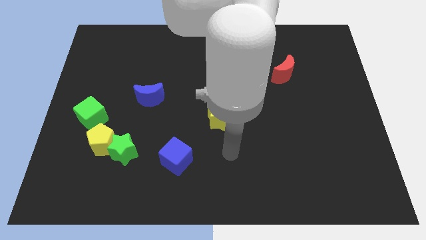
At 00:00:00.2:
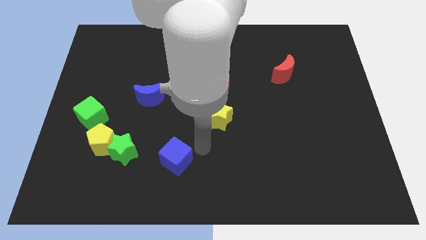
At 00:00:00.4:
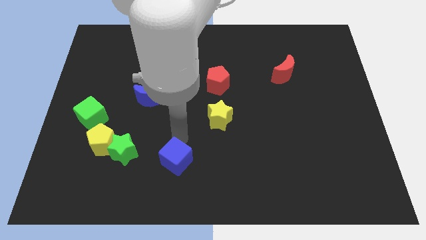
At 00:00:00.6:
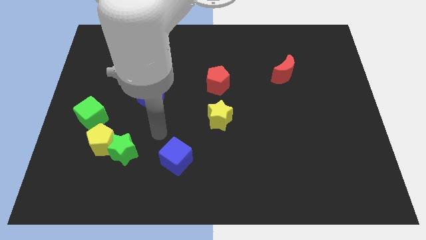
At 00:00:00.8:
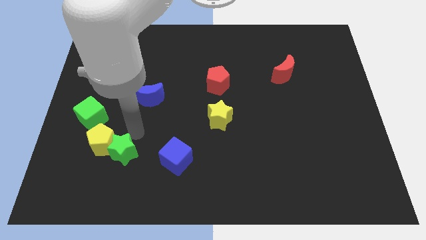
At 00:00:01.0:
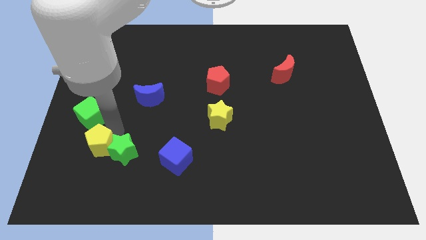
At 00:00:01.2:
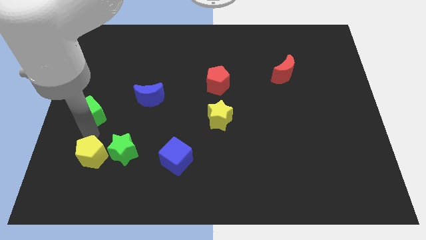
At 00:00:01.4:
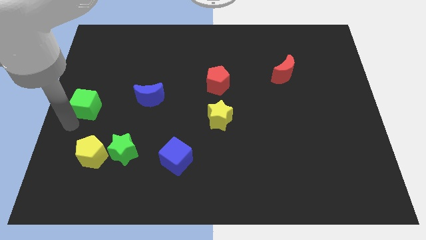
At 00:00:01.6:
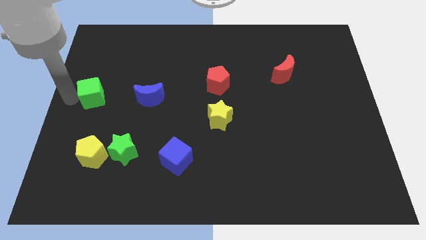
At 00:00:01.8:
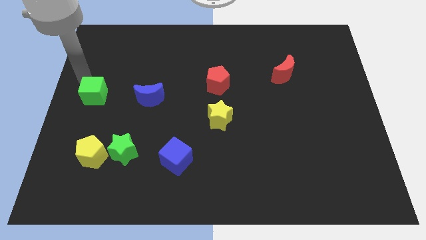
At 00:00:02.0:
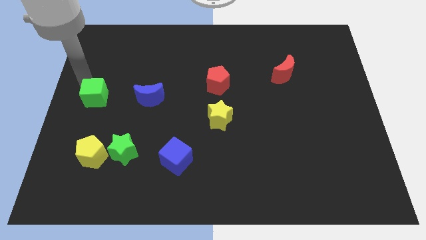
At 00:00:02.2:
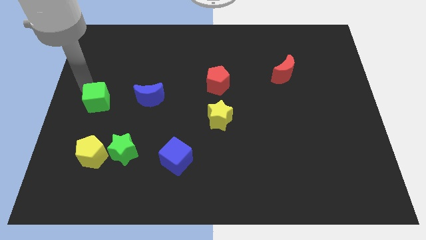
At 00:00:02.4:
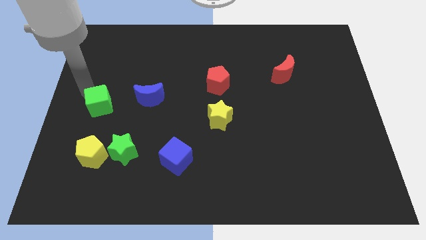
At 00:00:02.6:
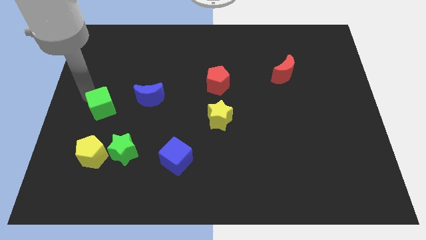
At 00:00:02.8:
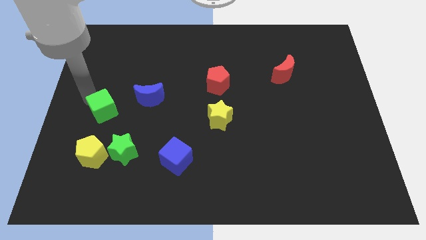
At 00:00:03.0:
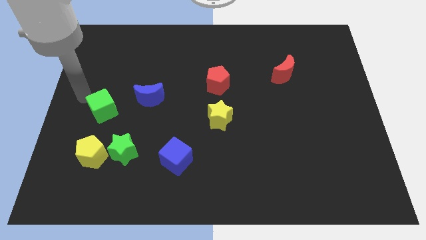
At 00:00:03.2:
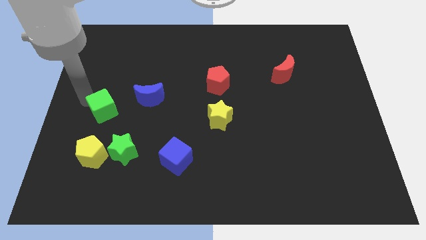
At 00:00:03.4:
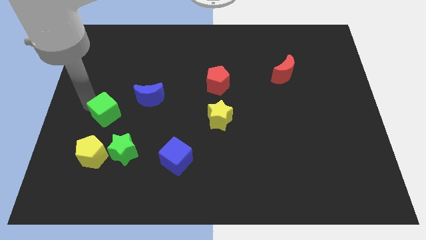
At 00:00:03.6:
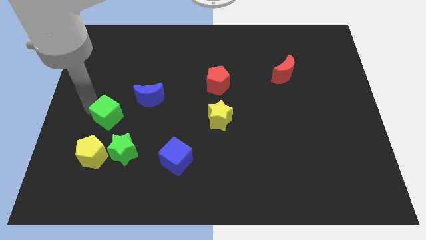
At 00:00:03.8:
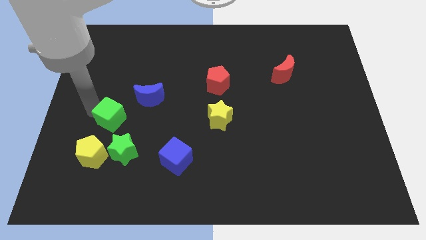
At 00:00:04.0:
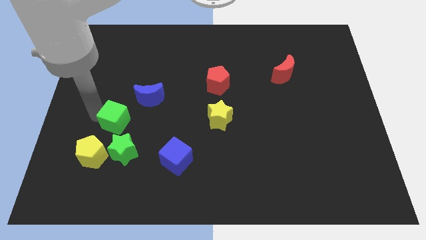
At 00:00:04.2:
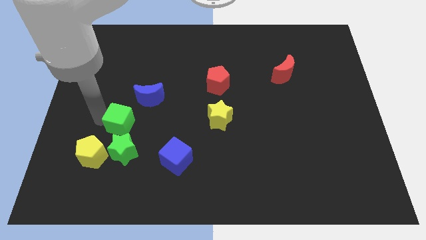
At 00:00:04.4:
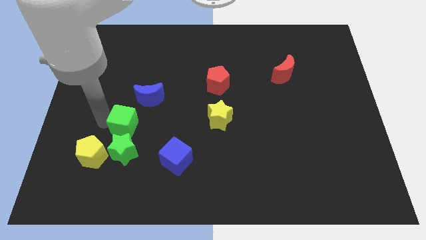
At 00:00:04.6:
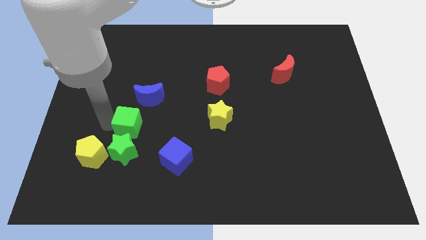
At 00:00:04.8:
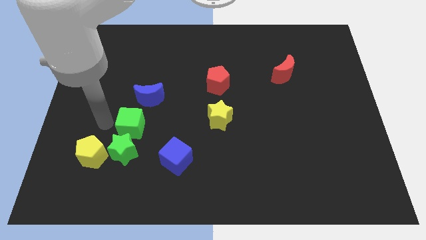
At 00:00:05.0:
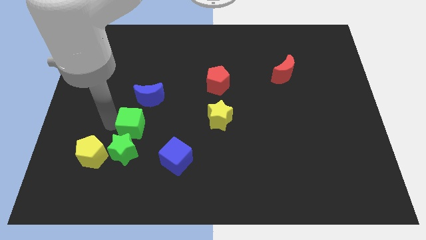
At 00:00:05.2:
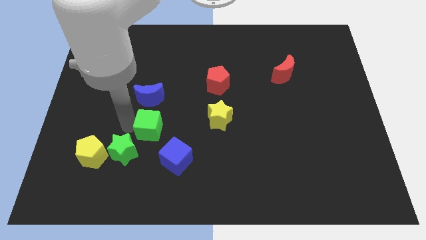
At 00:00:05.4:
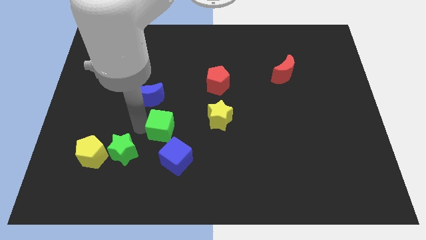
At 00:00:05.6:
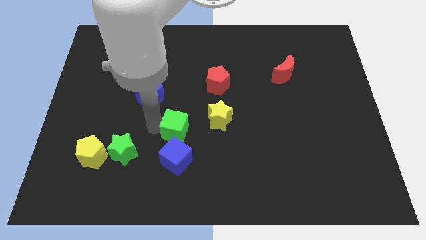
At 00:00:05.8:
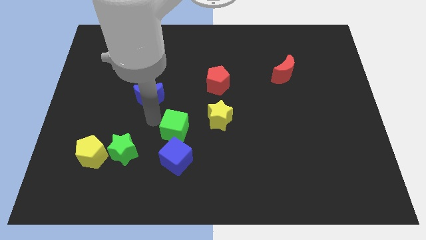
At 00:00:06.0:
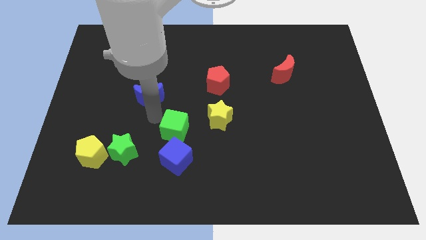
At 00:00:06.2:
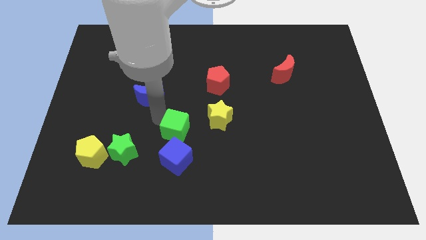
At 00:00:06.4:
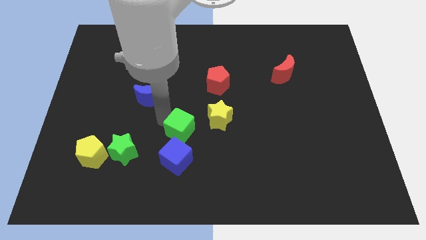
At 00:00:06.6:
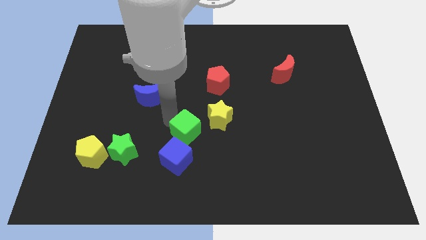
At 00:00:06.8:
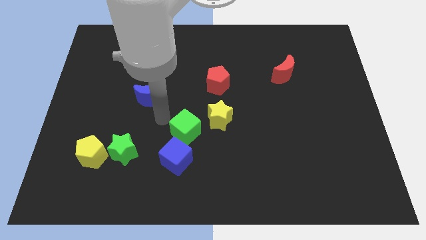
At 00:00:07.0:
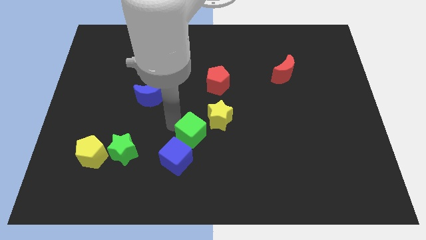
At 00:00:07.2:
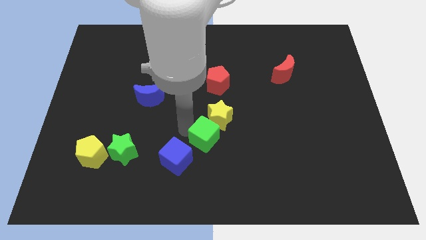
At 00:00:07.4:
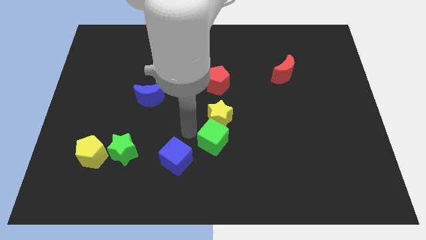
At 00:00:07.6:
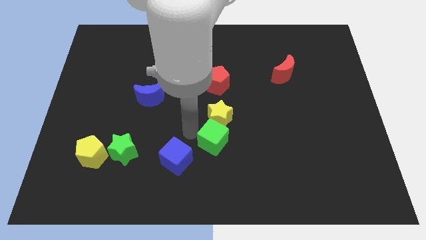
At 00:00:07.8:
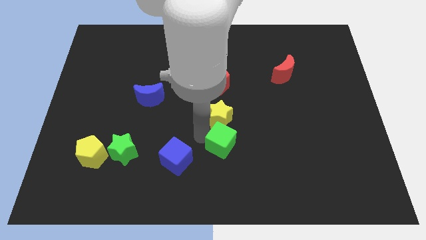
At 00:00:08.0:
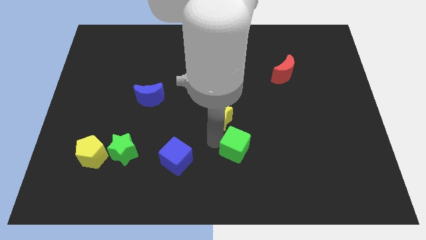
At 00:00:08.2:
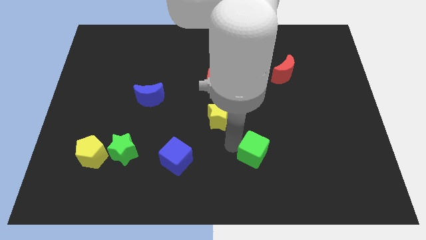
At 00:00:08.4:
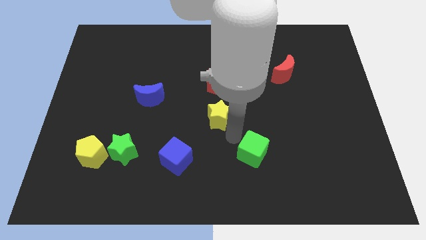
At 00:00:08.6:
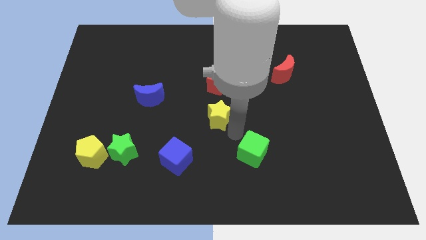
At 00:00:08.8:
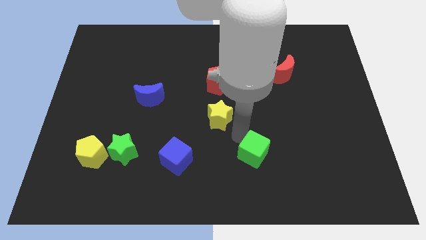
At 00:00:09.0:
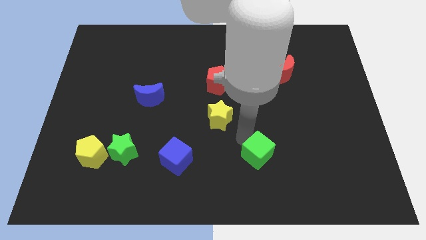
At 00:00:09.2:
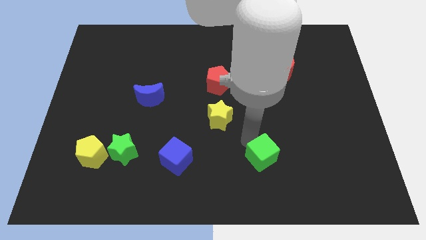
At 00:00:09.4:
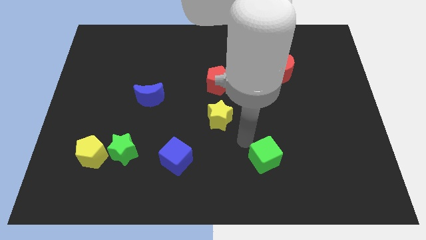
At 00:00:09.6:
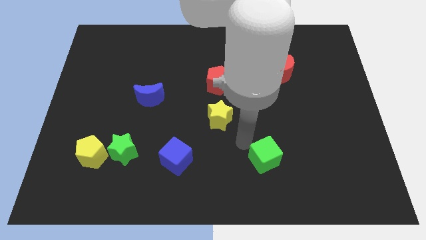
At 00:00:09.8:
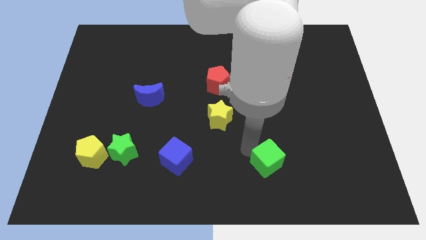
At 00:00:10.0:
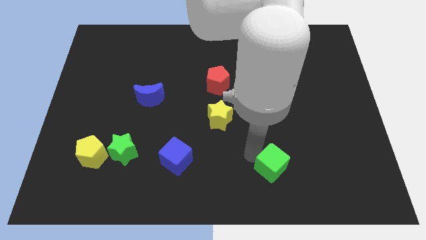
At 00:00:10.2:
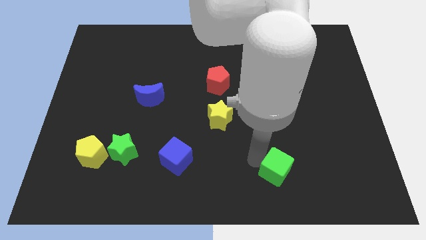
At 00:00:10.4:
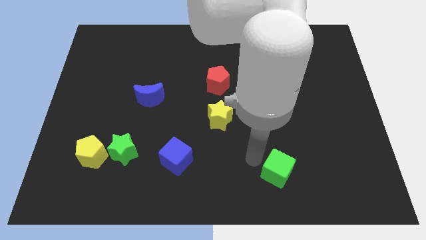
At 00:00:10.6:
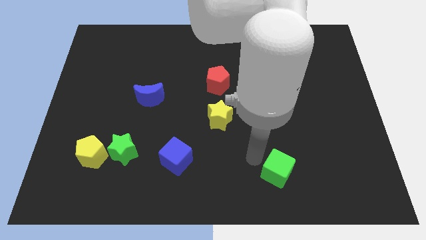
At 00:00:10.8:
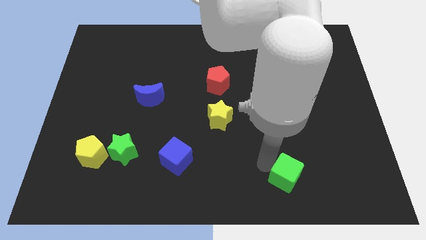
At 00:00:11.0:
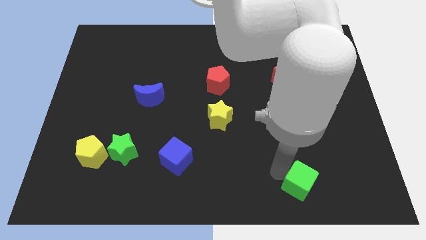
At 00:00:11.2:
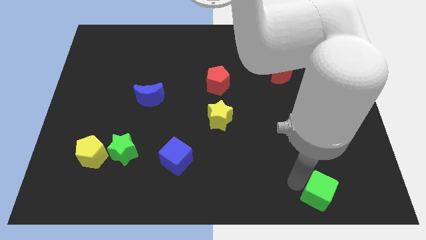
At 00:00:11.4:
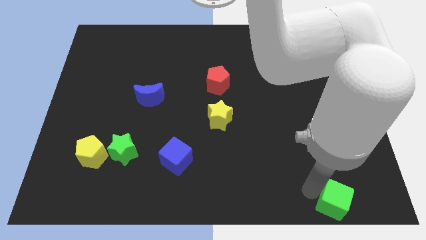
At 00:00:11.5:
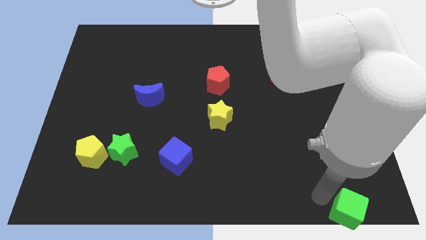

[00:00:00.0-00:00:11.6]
push the green cube to the bottom right

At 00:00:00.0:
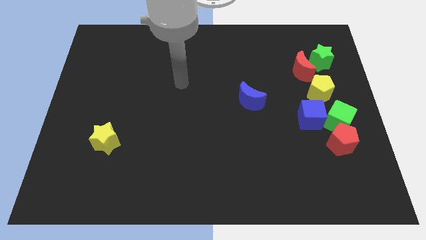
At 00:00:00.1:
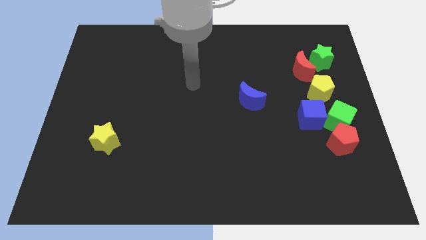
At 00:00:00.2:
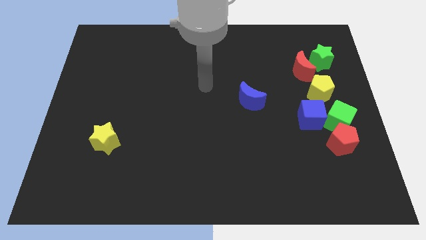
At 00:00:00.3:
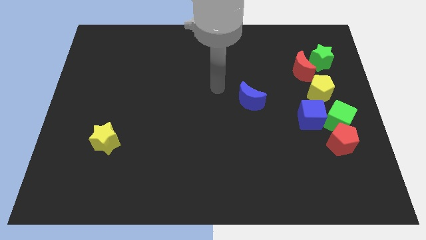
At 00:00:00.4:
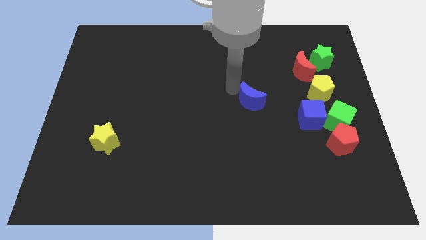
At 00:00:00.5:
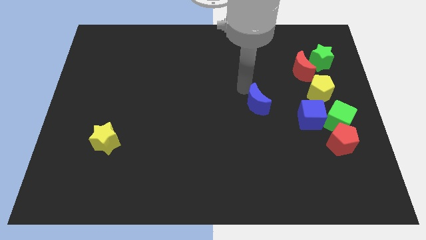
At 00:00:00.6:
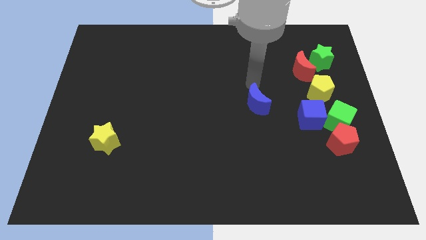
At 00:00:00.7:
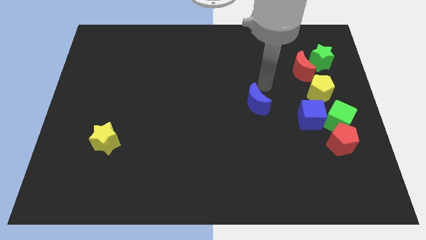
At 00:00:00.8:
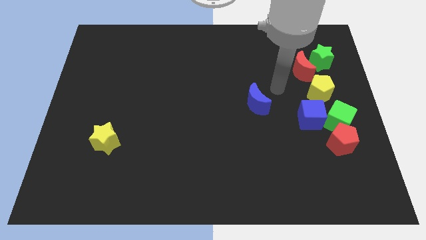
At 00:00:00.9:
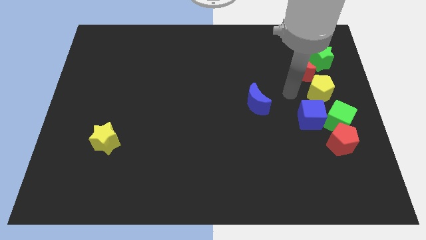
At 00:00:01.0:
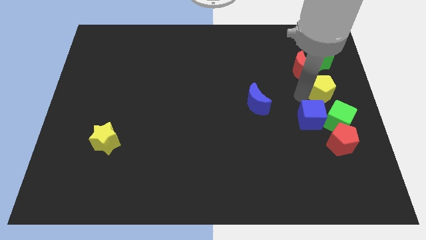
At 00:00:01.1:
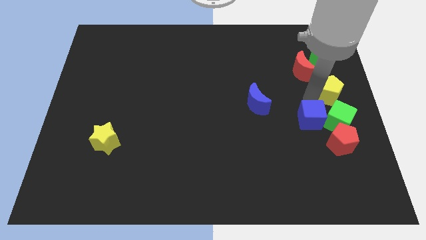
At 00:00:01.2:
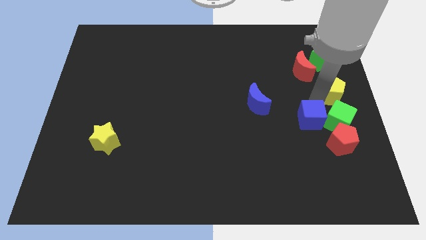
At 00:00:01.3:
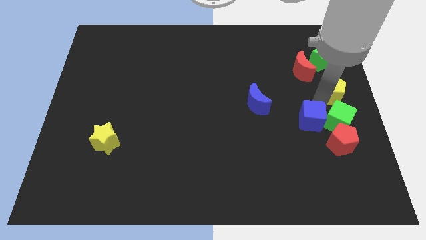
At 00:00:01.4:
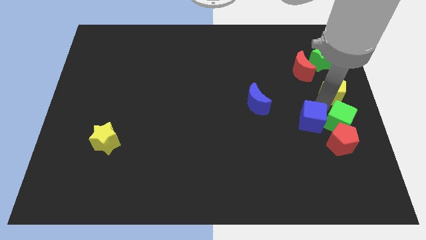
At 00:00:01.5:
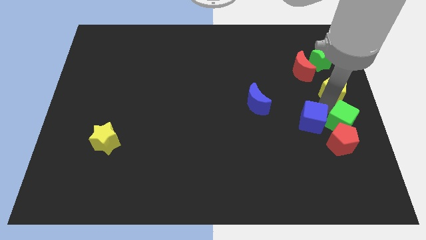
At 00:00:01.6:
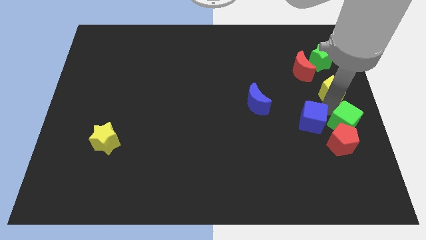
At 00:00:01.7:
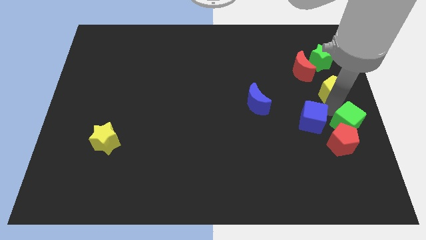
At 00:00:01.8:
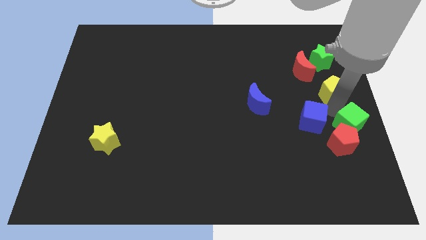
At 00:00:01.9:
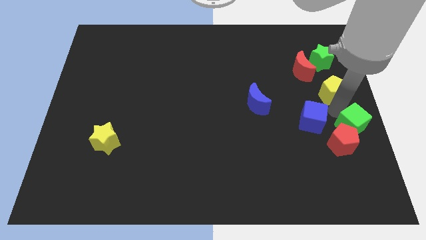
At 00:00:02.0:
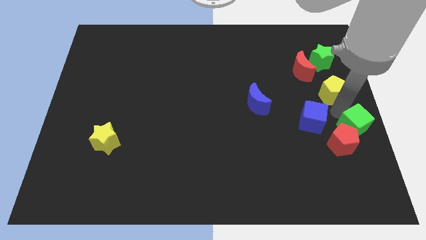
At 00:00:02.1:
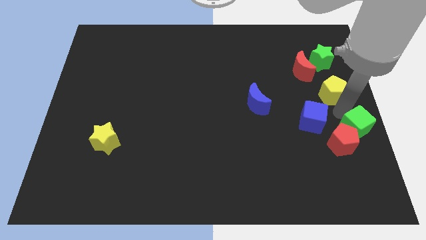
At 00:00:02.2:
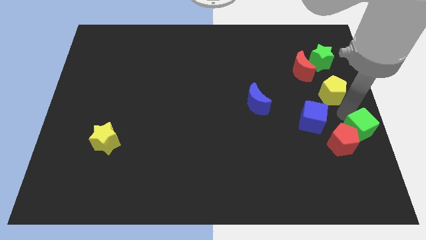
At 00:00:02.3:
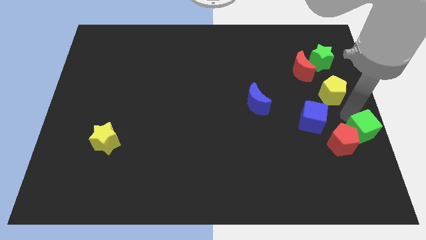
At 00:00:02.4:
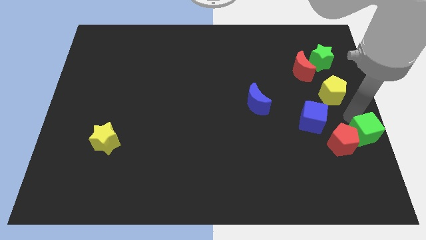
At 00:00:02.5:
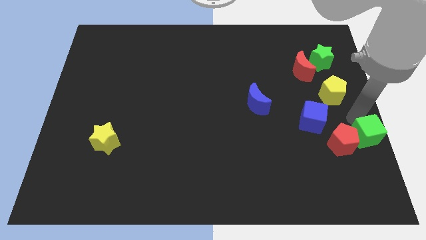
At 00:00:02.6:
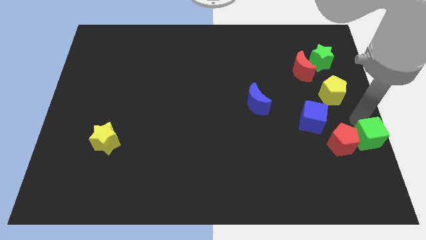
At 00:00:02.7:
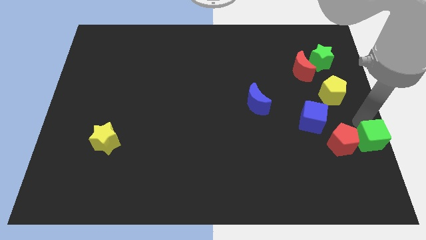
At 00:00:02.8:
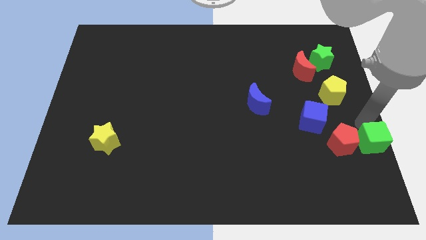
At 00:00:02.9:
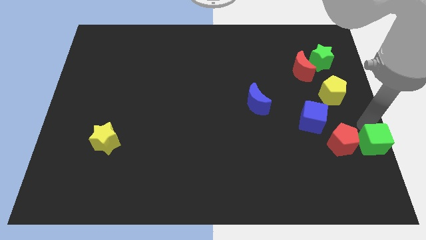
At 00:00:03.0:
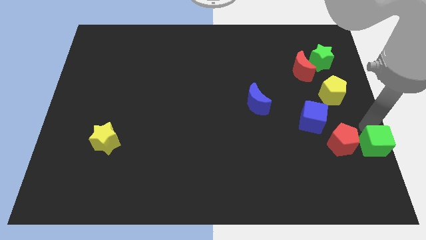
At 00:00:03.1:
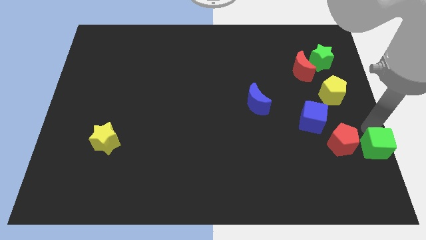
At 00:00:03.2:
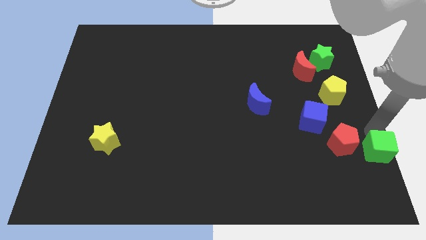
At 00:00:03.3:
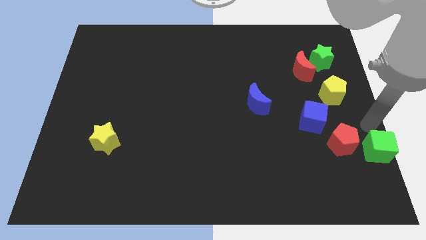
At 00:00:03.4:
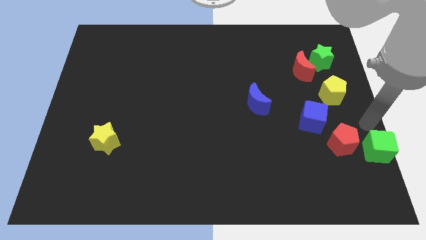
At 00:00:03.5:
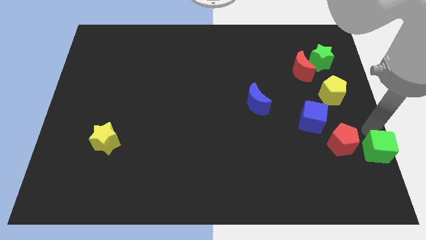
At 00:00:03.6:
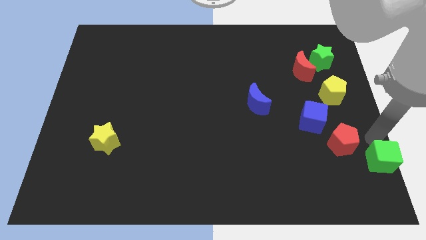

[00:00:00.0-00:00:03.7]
move the green cube to the bottom right corner
